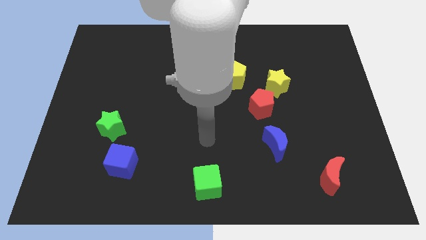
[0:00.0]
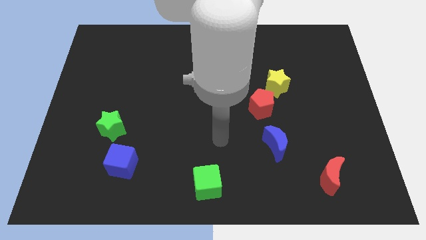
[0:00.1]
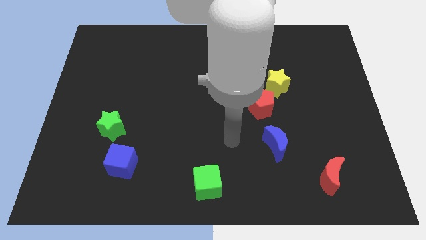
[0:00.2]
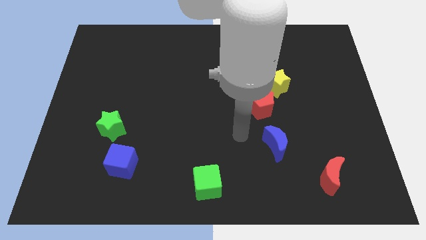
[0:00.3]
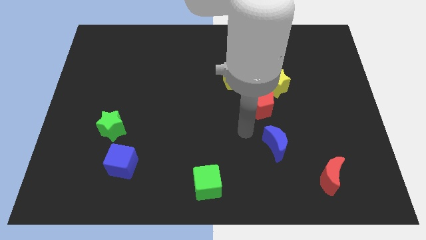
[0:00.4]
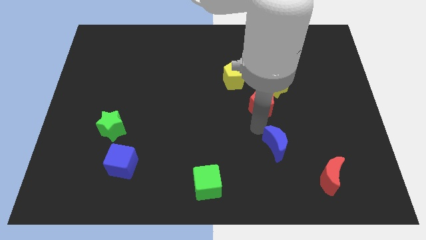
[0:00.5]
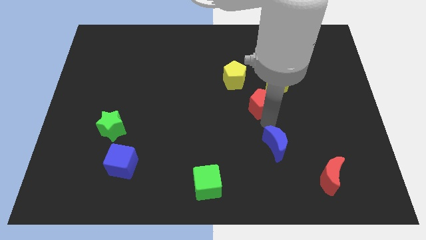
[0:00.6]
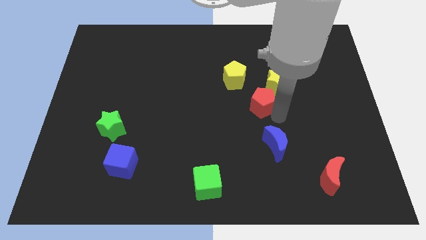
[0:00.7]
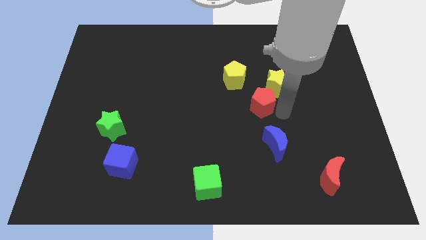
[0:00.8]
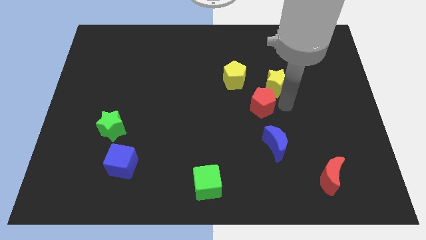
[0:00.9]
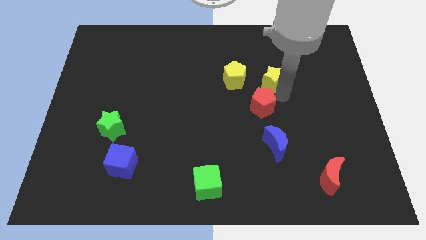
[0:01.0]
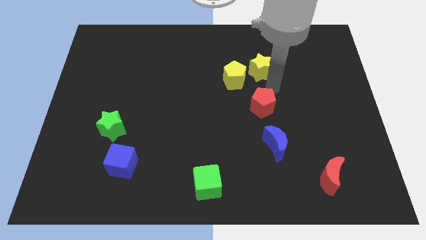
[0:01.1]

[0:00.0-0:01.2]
separate the red pentagon from the yellow star

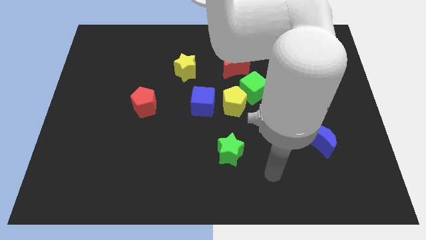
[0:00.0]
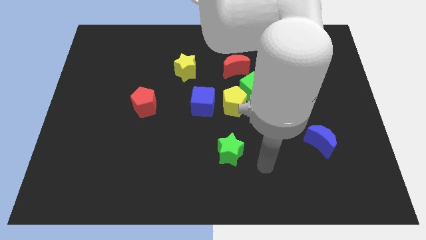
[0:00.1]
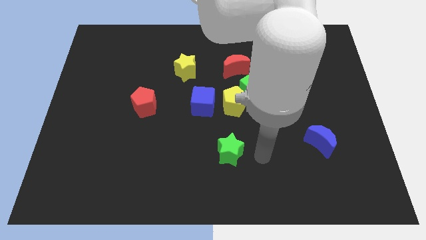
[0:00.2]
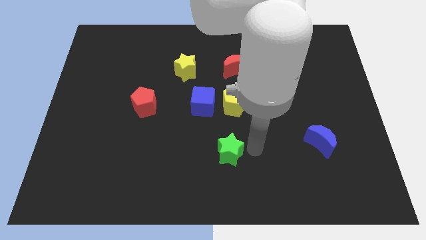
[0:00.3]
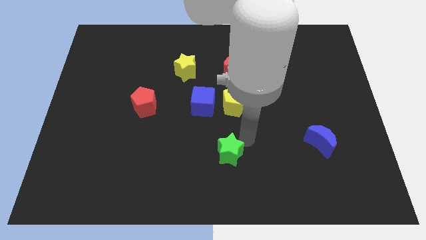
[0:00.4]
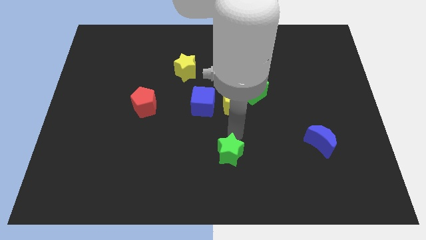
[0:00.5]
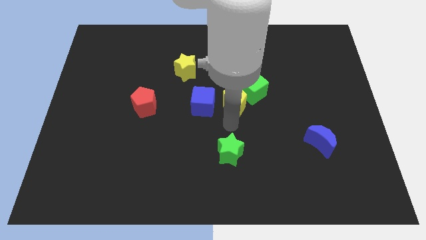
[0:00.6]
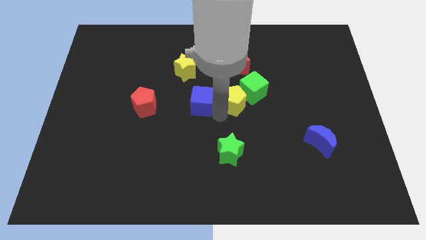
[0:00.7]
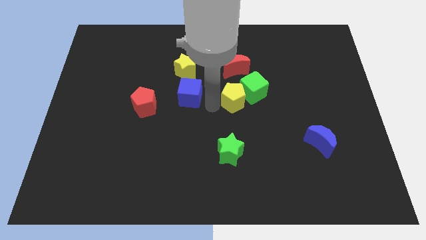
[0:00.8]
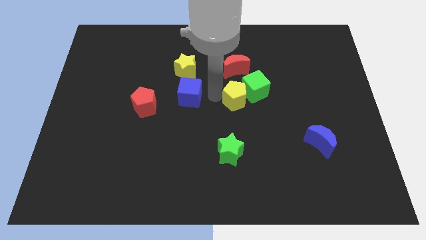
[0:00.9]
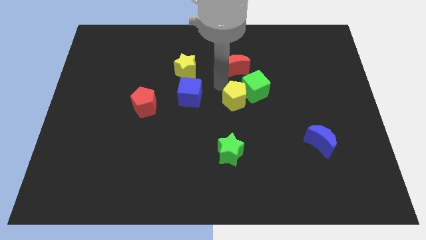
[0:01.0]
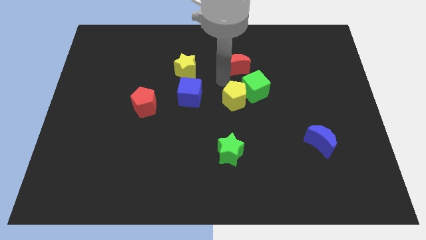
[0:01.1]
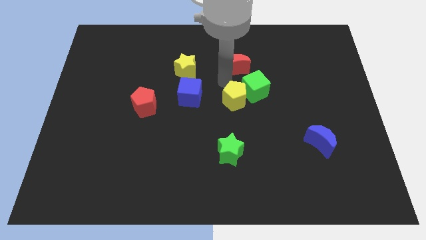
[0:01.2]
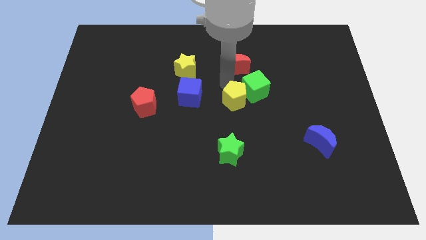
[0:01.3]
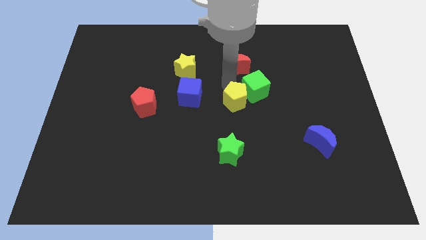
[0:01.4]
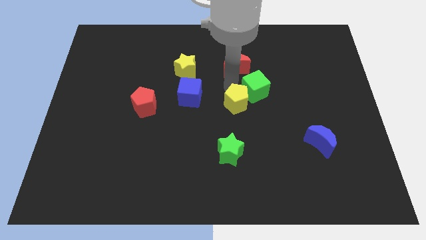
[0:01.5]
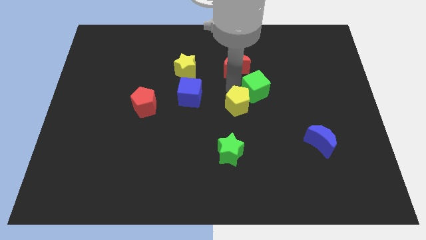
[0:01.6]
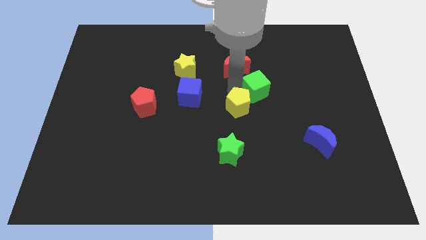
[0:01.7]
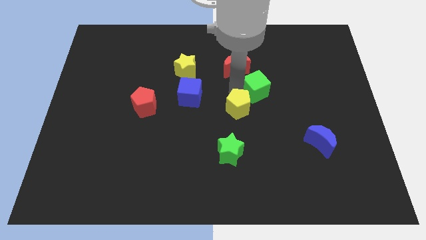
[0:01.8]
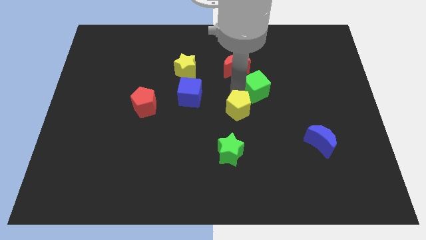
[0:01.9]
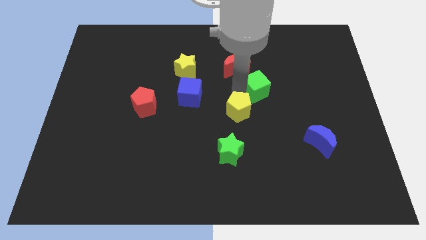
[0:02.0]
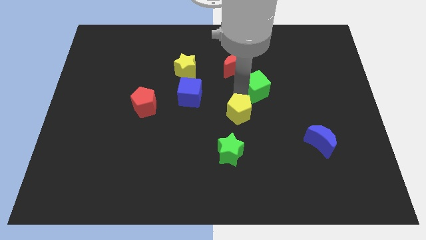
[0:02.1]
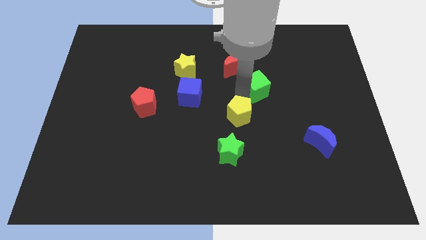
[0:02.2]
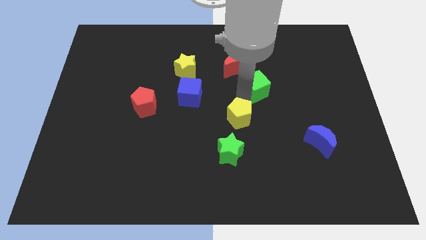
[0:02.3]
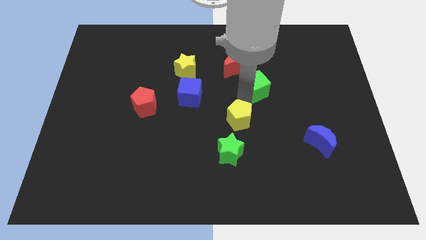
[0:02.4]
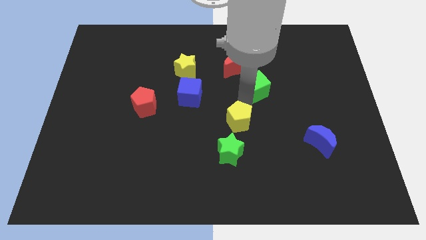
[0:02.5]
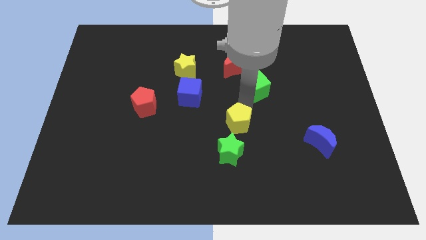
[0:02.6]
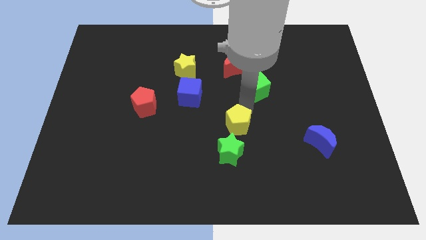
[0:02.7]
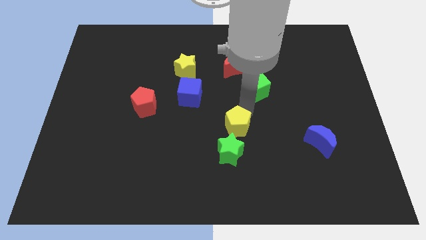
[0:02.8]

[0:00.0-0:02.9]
separate the yellow pentagon from the green cube and blue cube

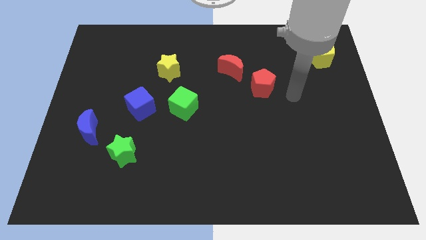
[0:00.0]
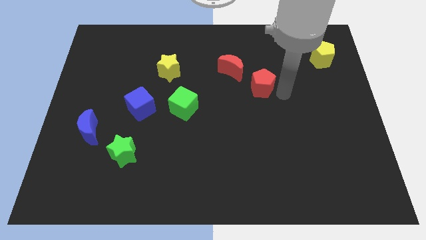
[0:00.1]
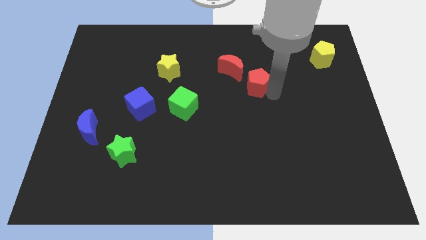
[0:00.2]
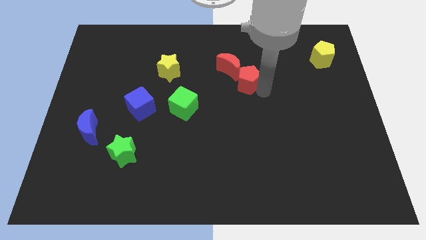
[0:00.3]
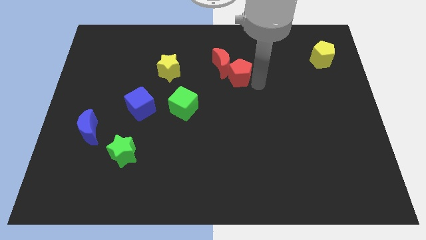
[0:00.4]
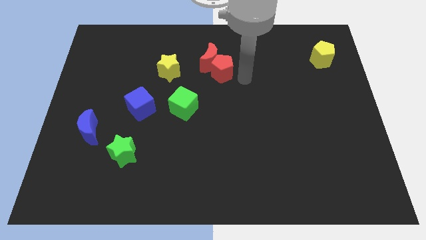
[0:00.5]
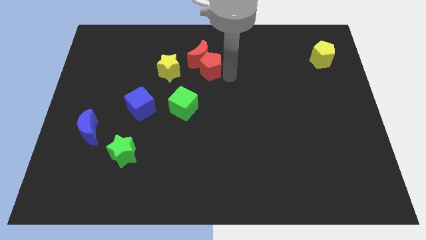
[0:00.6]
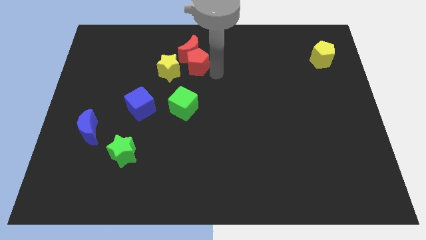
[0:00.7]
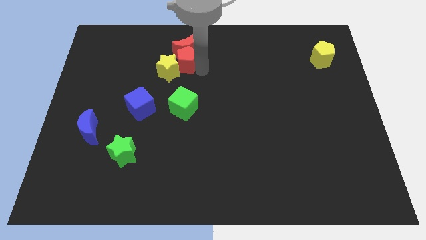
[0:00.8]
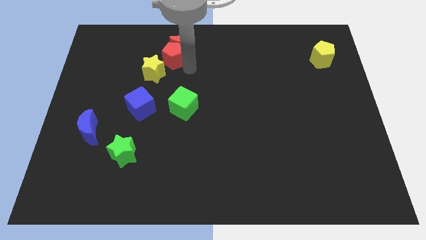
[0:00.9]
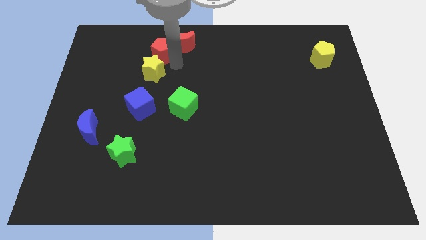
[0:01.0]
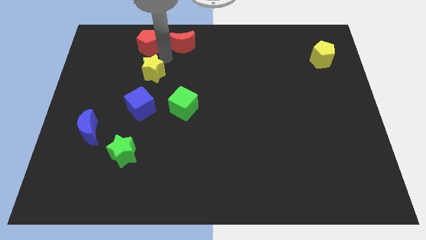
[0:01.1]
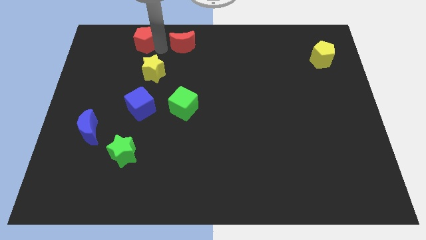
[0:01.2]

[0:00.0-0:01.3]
separate the red moon from the red pentagon

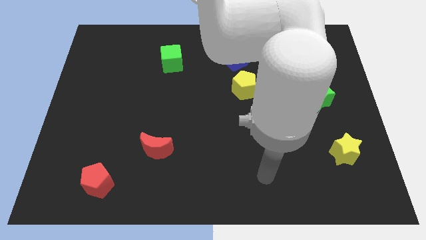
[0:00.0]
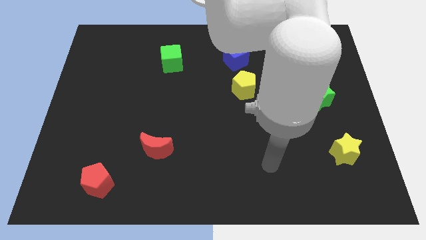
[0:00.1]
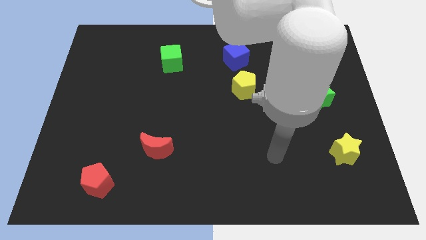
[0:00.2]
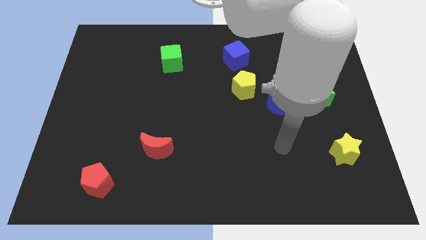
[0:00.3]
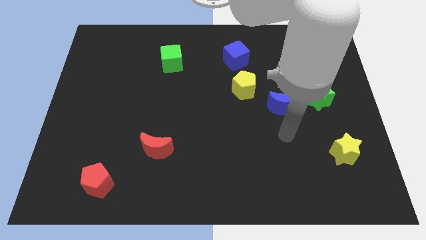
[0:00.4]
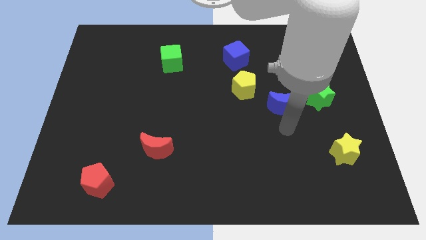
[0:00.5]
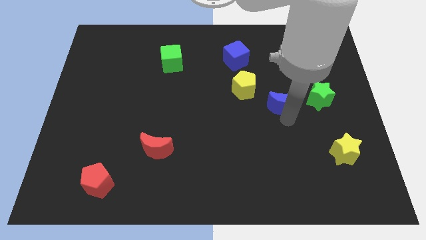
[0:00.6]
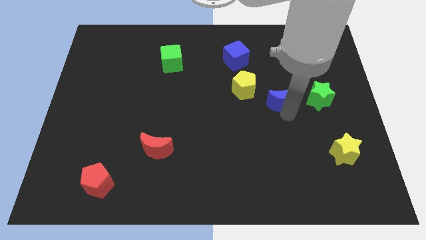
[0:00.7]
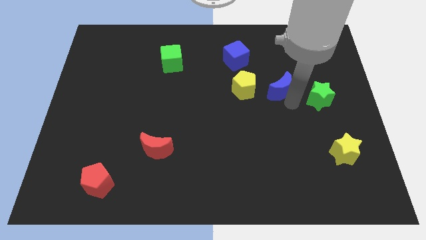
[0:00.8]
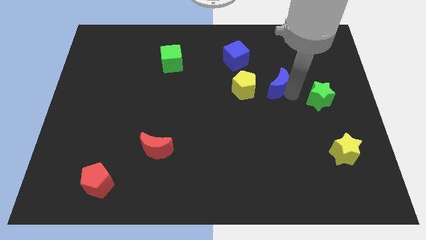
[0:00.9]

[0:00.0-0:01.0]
move the green star away from the blue moon

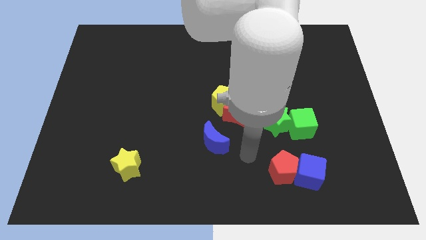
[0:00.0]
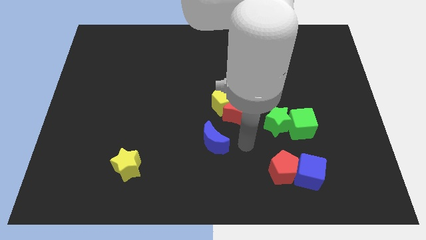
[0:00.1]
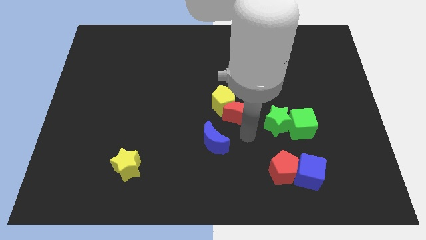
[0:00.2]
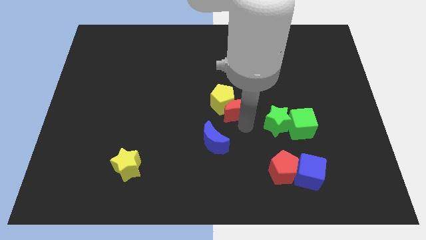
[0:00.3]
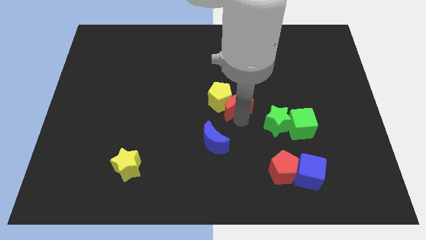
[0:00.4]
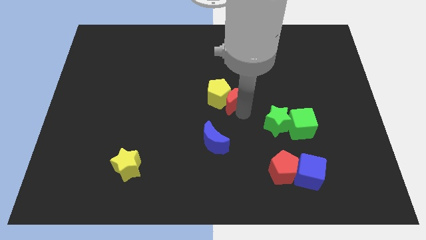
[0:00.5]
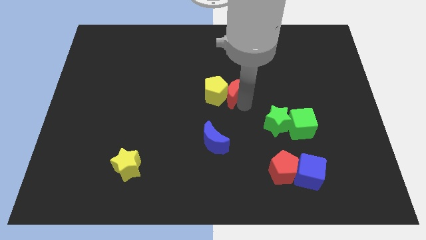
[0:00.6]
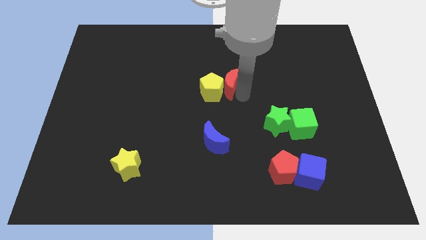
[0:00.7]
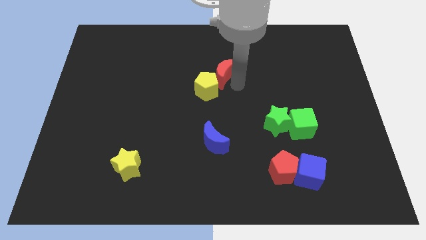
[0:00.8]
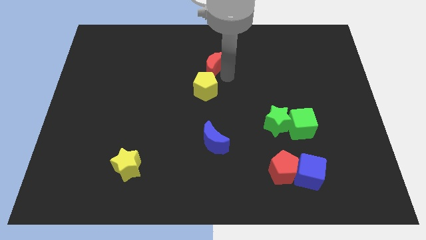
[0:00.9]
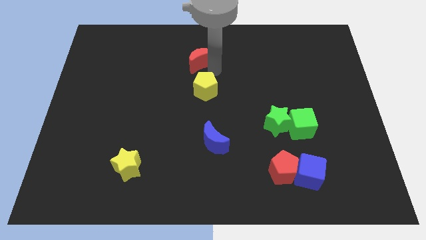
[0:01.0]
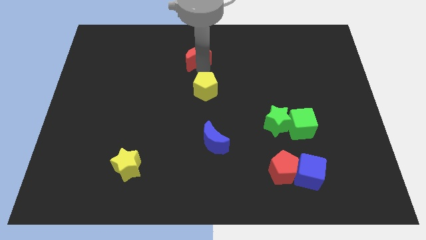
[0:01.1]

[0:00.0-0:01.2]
separate the yellow pentagon from the red moon

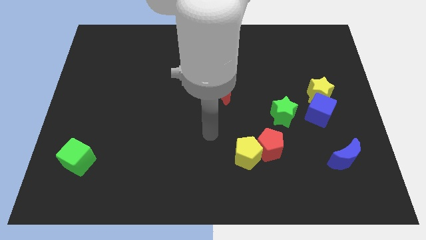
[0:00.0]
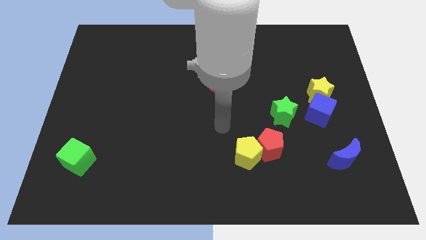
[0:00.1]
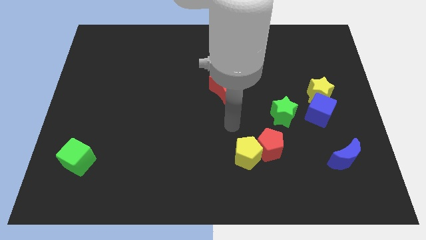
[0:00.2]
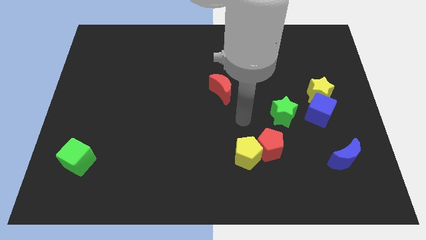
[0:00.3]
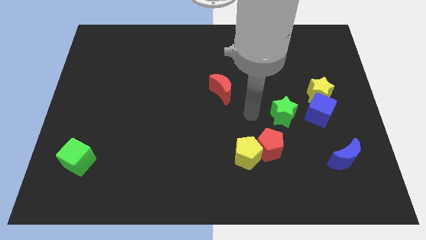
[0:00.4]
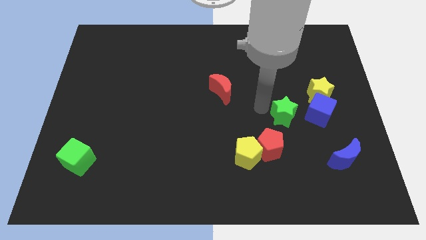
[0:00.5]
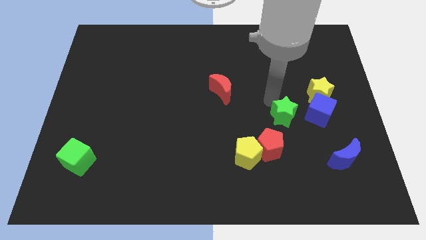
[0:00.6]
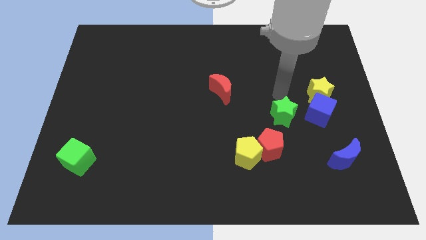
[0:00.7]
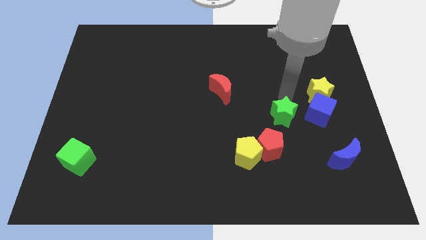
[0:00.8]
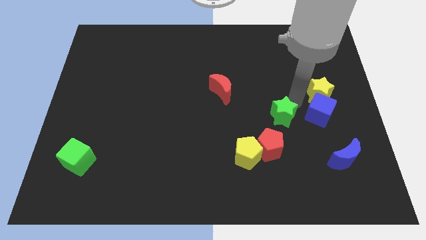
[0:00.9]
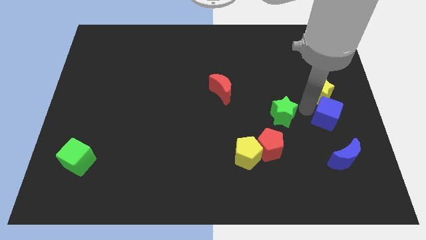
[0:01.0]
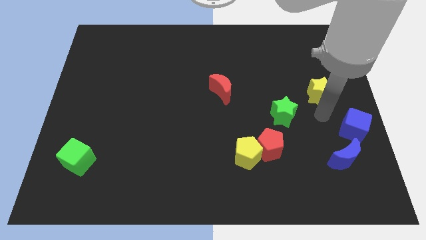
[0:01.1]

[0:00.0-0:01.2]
separate the yellow star from the blue cube

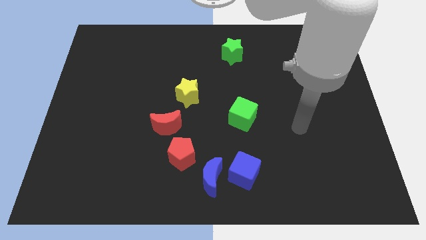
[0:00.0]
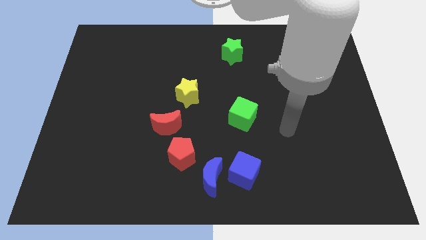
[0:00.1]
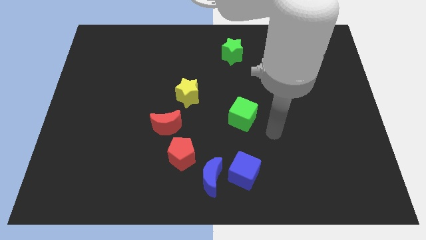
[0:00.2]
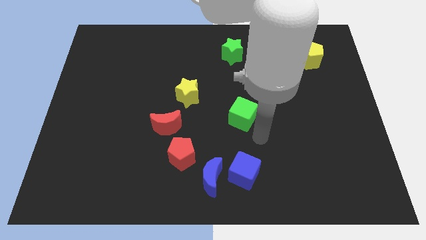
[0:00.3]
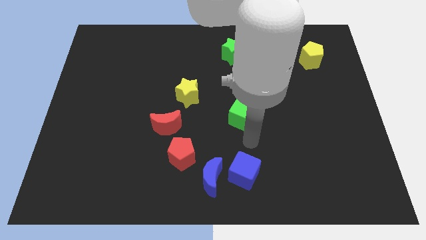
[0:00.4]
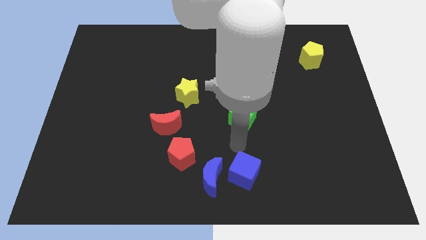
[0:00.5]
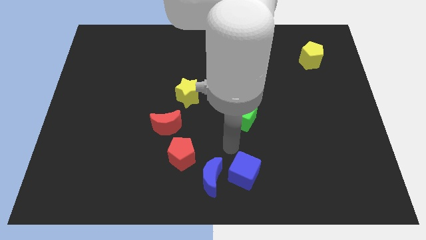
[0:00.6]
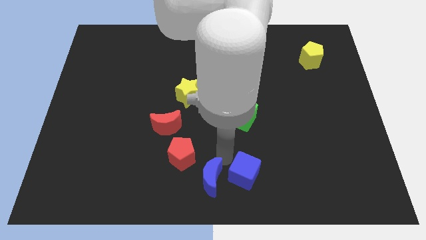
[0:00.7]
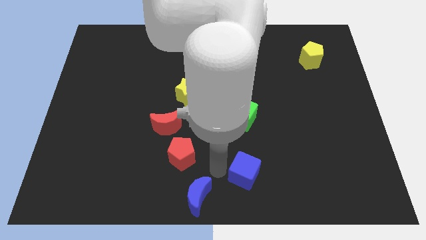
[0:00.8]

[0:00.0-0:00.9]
separate the blue cube from the blue moon
